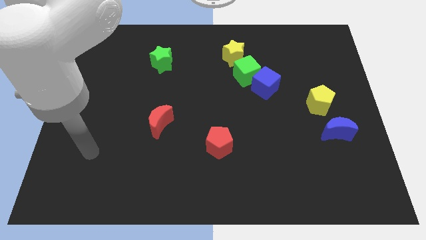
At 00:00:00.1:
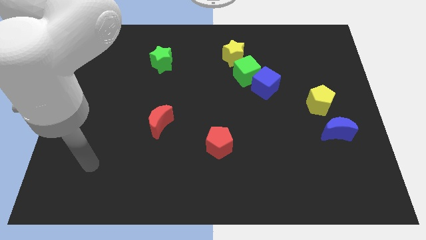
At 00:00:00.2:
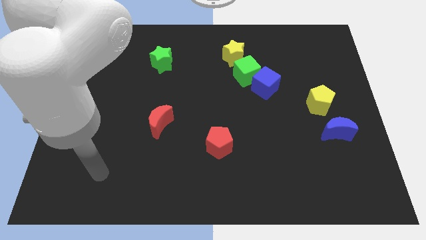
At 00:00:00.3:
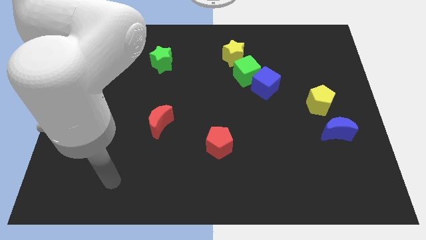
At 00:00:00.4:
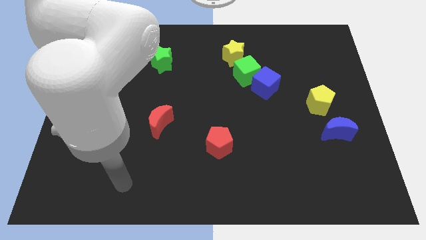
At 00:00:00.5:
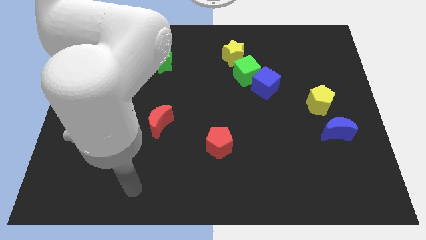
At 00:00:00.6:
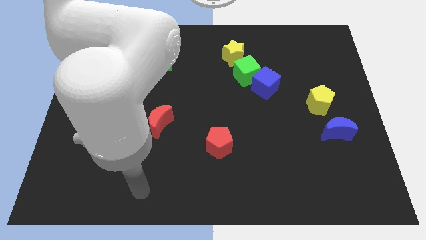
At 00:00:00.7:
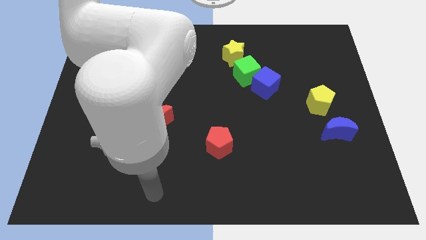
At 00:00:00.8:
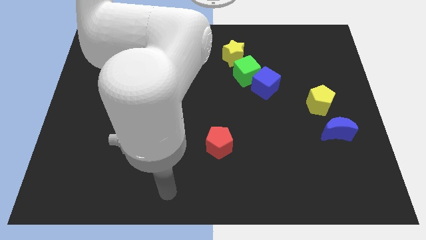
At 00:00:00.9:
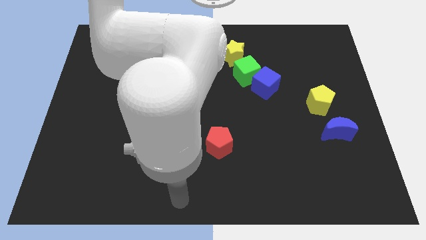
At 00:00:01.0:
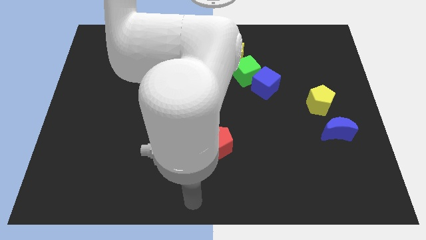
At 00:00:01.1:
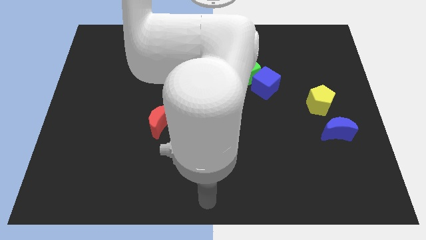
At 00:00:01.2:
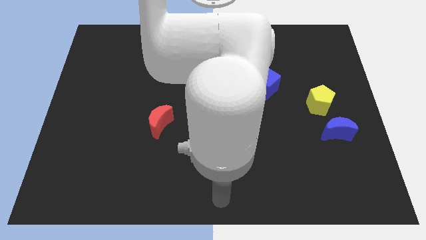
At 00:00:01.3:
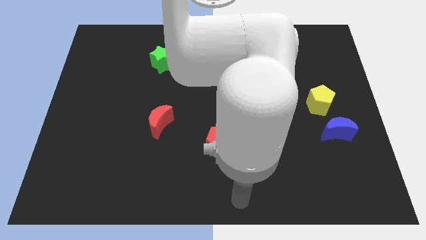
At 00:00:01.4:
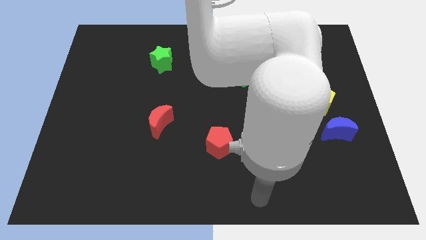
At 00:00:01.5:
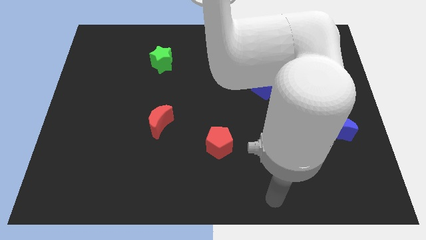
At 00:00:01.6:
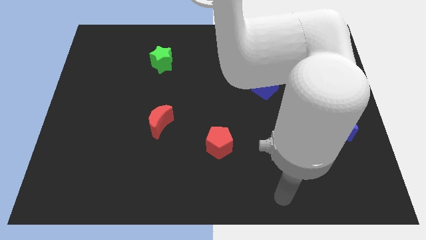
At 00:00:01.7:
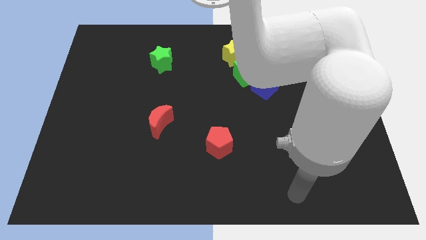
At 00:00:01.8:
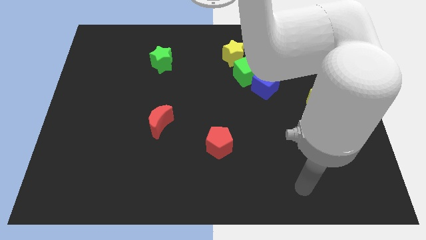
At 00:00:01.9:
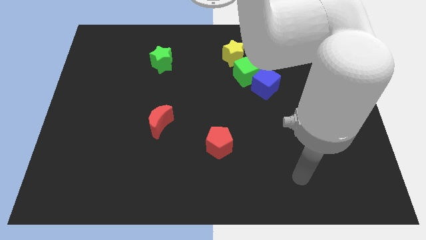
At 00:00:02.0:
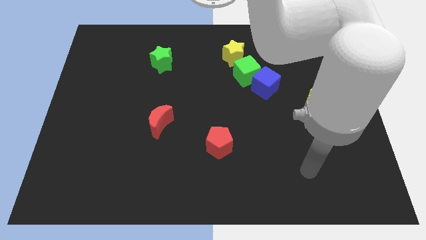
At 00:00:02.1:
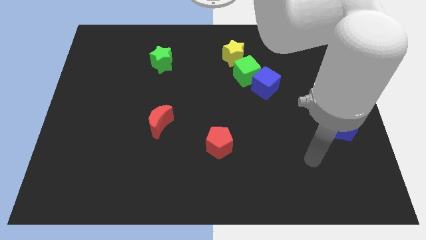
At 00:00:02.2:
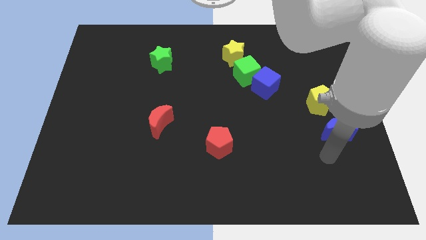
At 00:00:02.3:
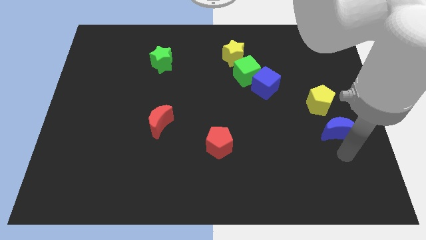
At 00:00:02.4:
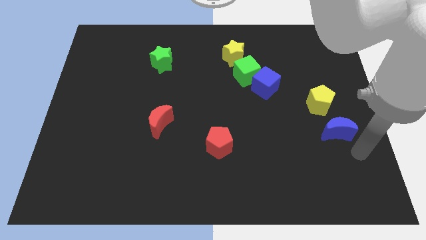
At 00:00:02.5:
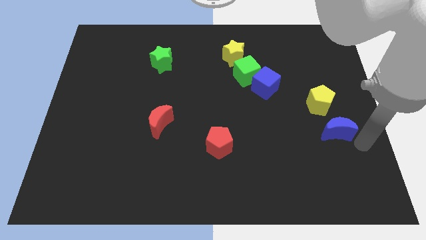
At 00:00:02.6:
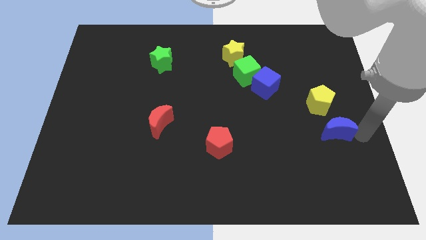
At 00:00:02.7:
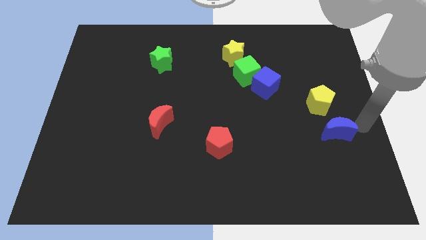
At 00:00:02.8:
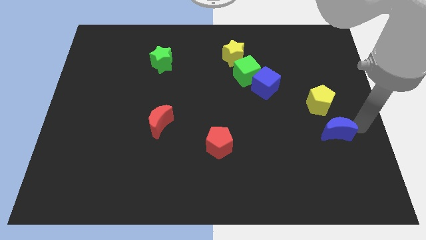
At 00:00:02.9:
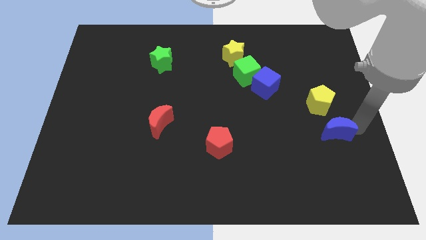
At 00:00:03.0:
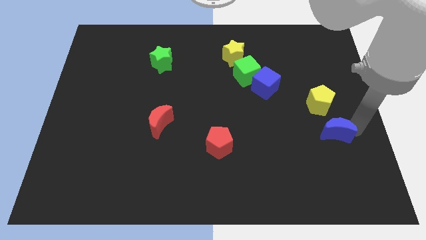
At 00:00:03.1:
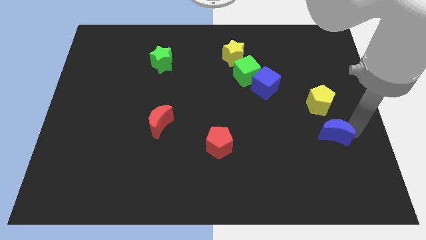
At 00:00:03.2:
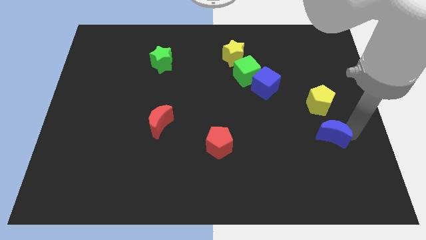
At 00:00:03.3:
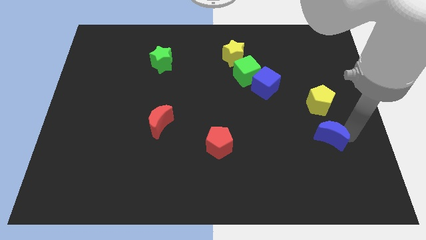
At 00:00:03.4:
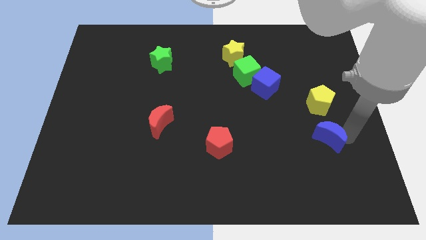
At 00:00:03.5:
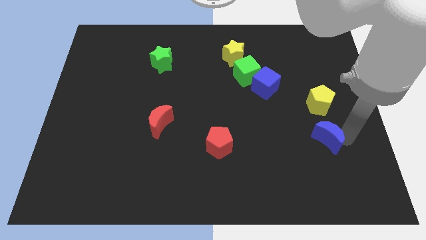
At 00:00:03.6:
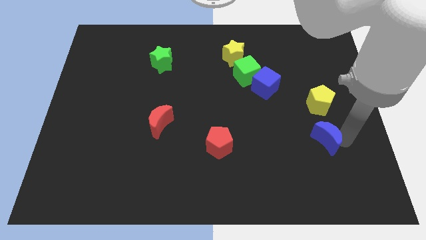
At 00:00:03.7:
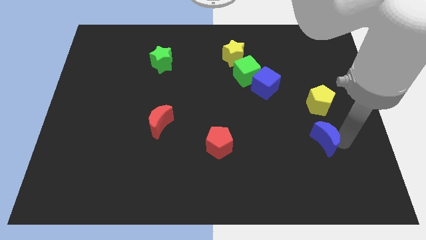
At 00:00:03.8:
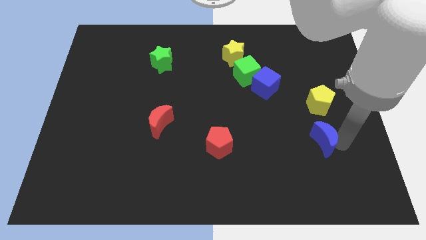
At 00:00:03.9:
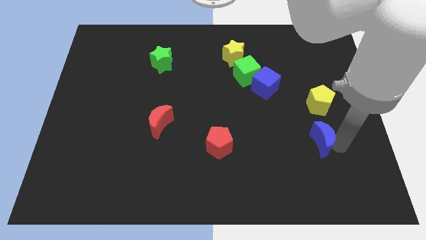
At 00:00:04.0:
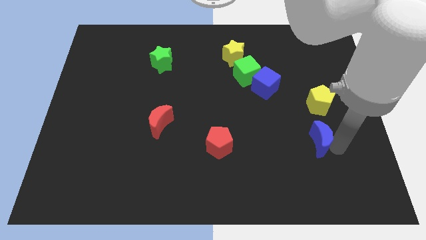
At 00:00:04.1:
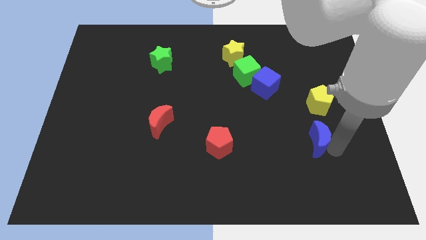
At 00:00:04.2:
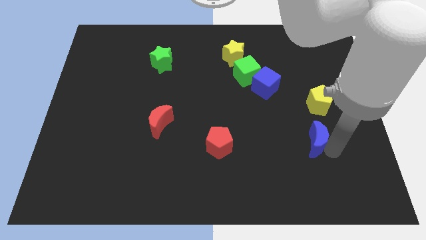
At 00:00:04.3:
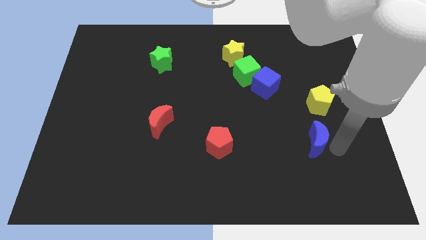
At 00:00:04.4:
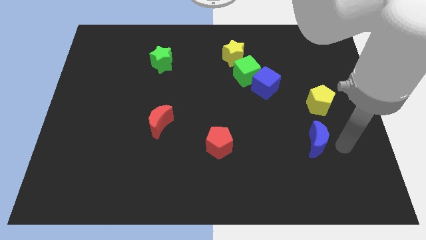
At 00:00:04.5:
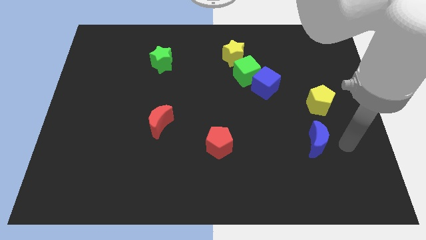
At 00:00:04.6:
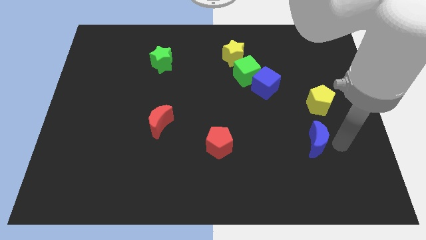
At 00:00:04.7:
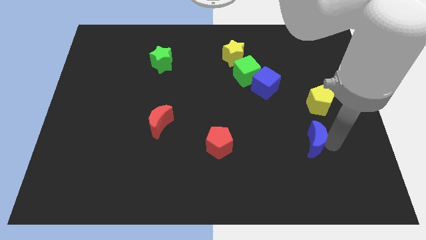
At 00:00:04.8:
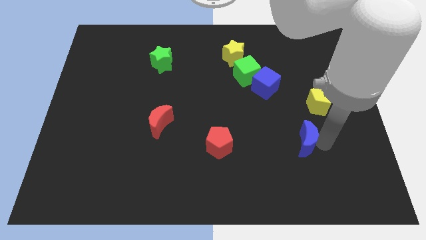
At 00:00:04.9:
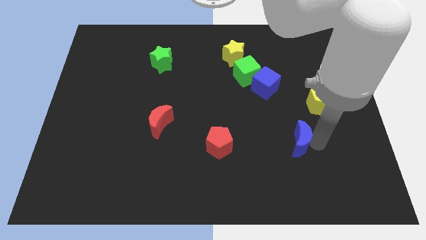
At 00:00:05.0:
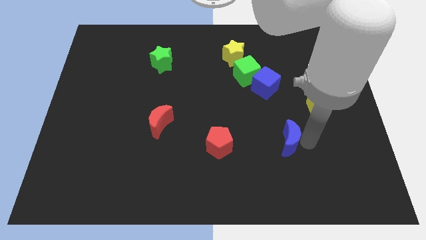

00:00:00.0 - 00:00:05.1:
put the blue moon to the right side of the red pentagon

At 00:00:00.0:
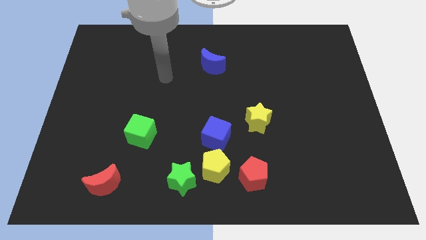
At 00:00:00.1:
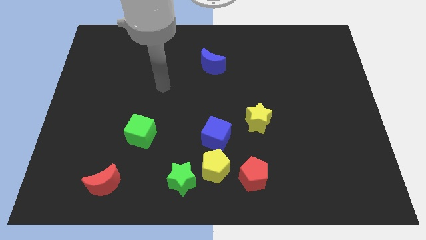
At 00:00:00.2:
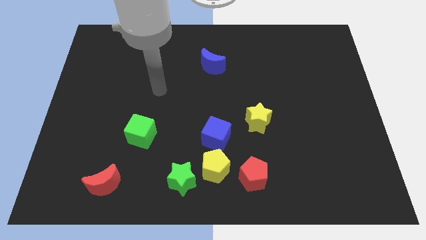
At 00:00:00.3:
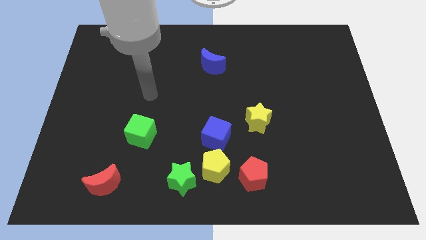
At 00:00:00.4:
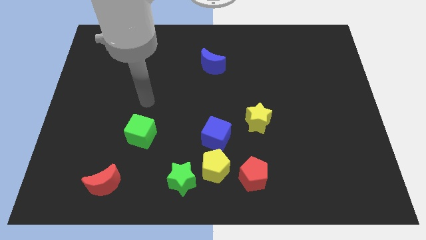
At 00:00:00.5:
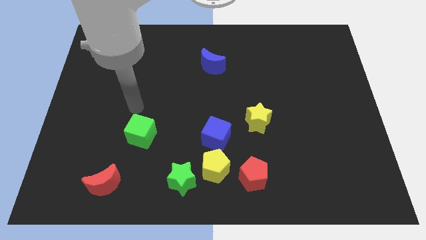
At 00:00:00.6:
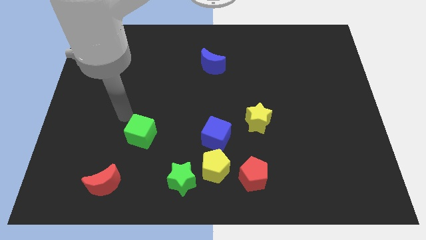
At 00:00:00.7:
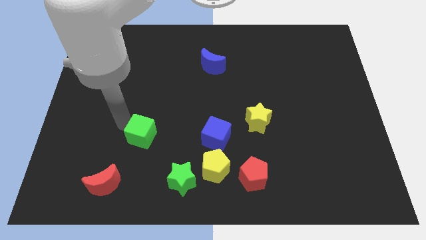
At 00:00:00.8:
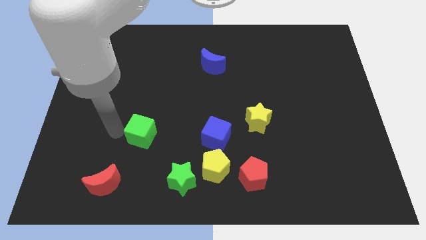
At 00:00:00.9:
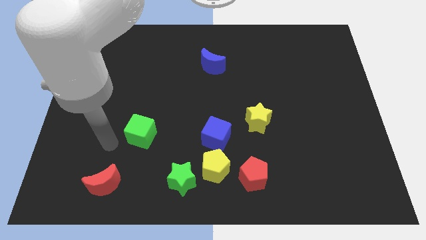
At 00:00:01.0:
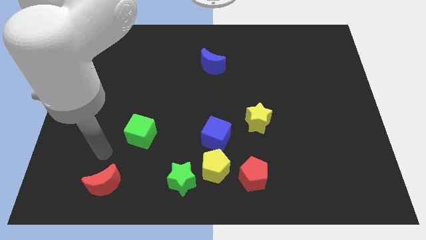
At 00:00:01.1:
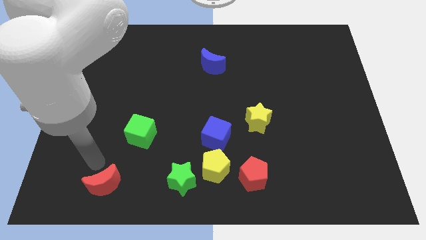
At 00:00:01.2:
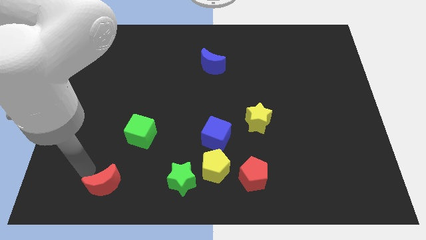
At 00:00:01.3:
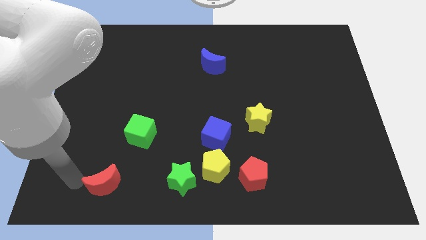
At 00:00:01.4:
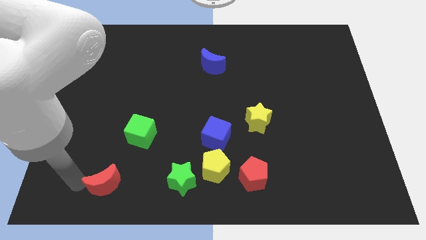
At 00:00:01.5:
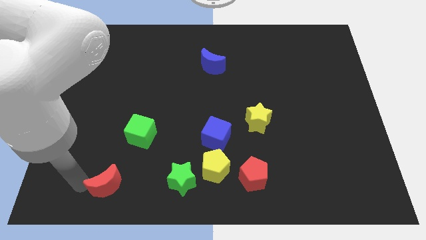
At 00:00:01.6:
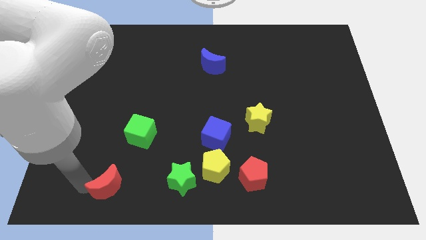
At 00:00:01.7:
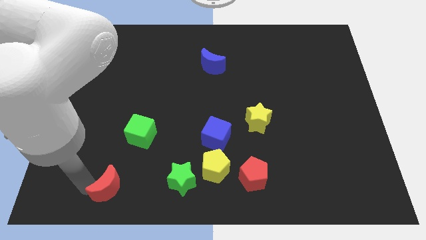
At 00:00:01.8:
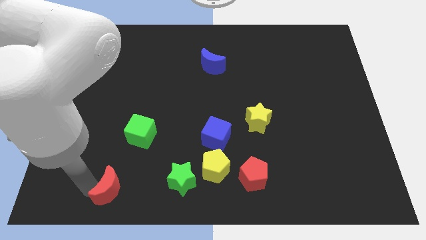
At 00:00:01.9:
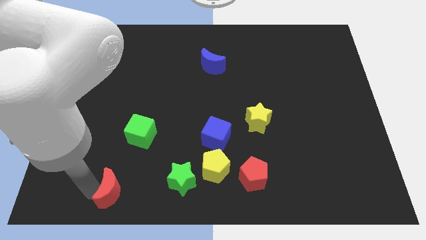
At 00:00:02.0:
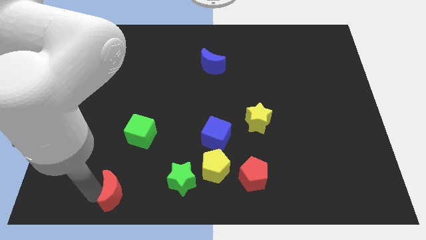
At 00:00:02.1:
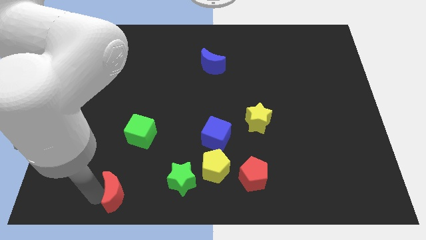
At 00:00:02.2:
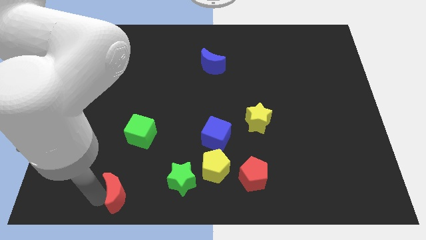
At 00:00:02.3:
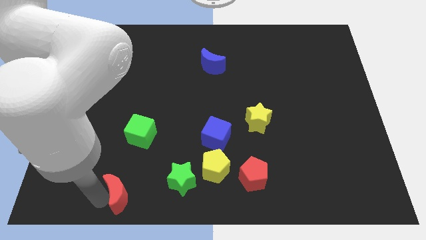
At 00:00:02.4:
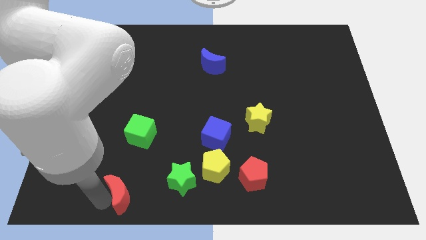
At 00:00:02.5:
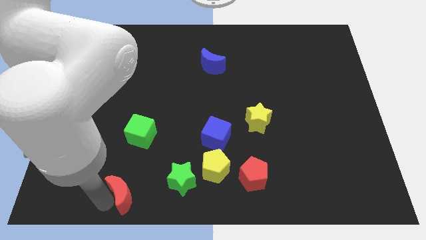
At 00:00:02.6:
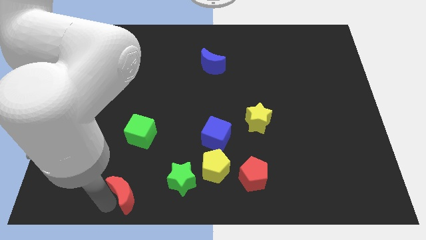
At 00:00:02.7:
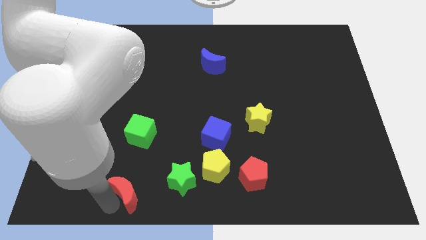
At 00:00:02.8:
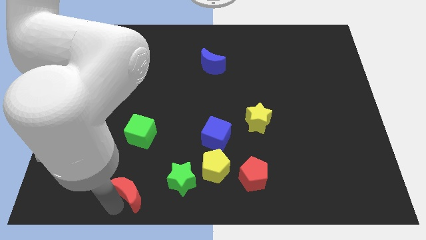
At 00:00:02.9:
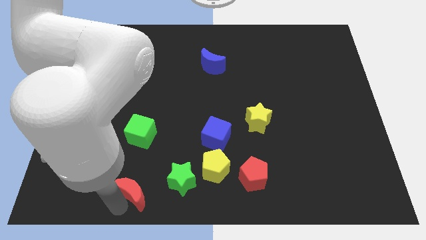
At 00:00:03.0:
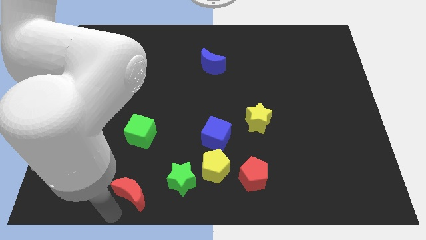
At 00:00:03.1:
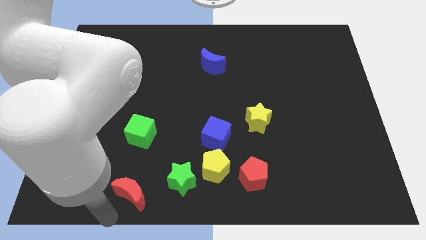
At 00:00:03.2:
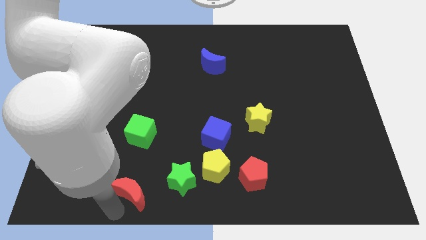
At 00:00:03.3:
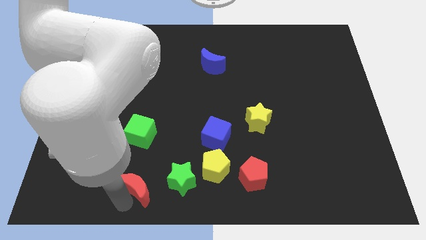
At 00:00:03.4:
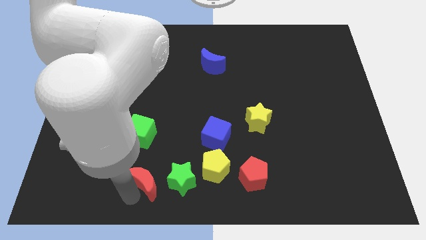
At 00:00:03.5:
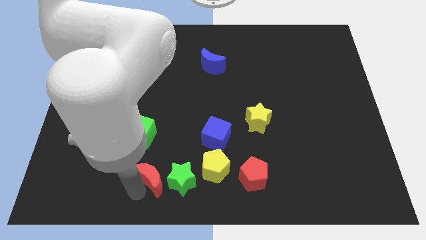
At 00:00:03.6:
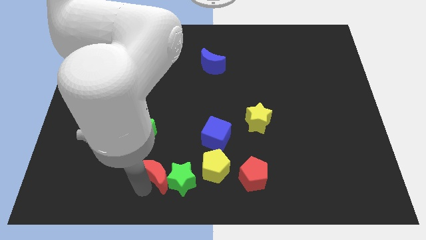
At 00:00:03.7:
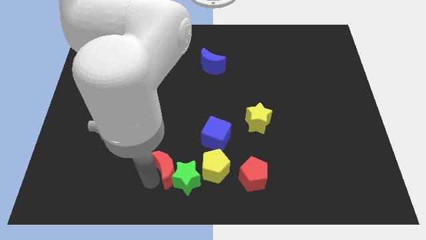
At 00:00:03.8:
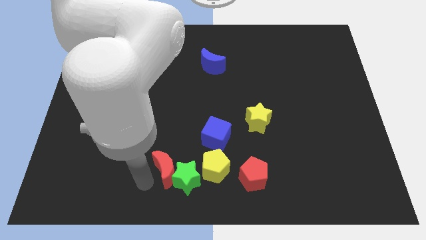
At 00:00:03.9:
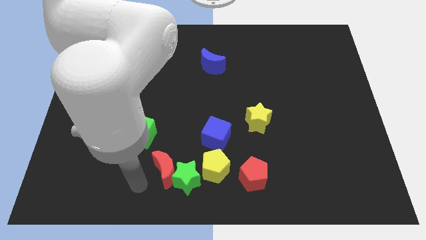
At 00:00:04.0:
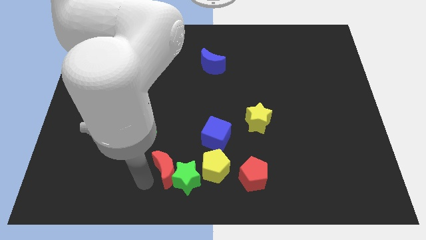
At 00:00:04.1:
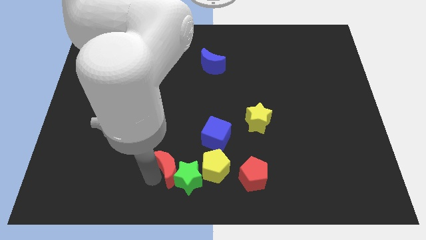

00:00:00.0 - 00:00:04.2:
move the red moon to the bottom left of the blue cube
